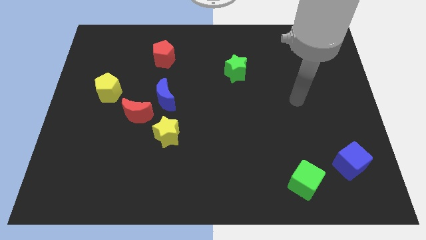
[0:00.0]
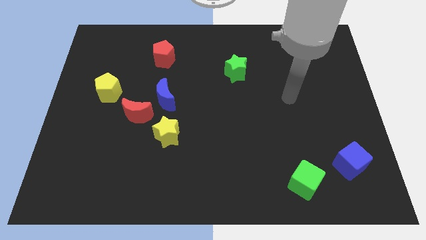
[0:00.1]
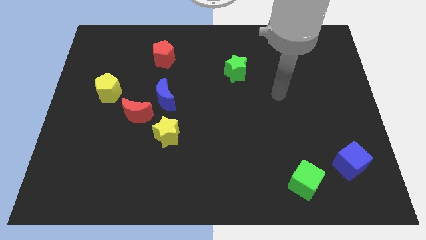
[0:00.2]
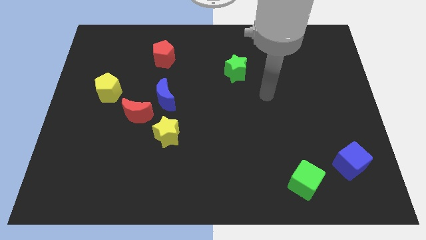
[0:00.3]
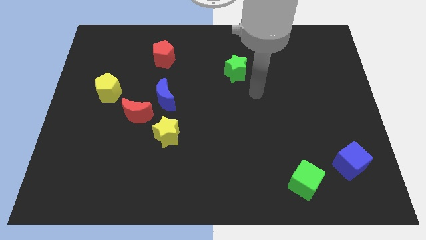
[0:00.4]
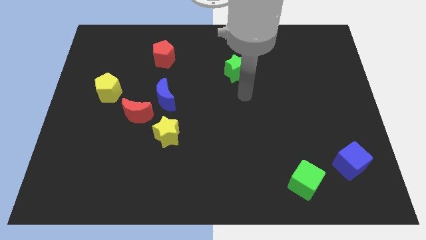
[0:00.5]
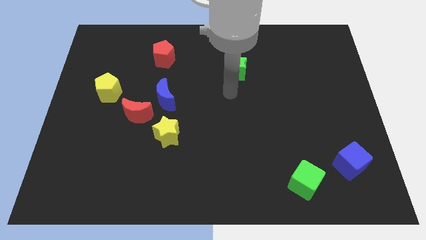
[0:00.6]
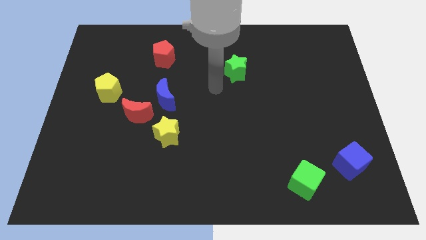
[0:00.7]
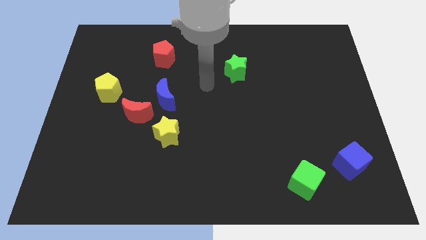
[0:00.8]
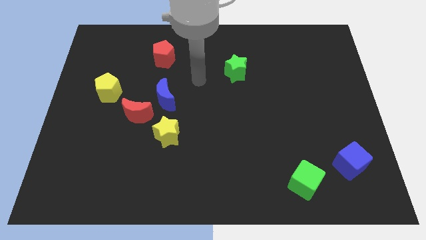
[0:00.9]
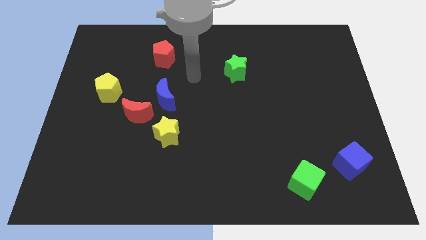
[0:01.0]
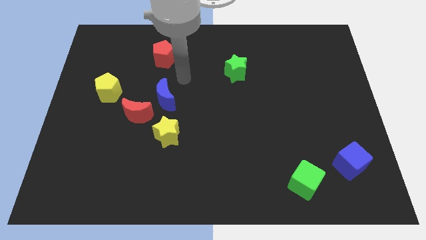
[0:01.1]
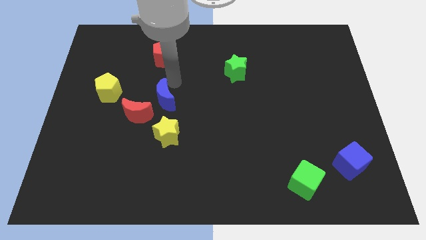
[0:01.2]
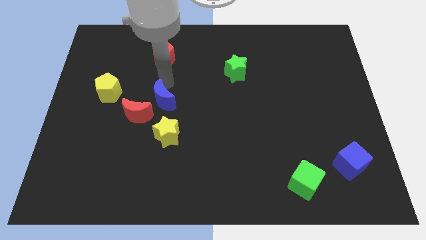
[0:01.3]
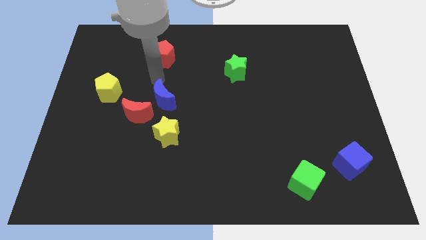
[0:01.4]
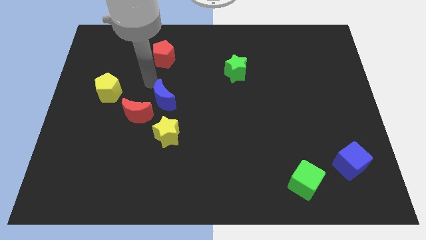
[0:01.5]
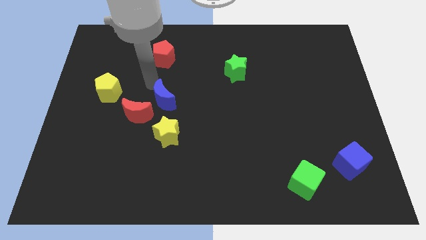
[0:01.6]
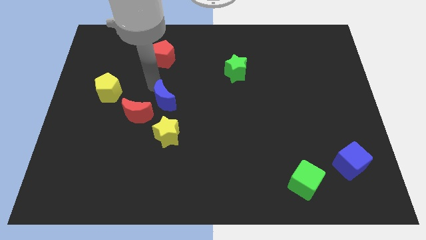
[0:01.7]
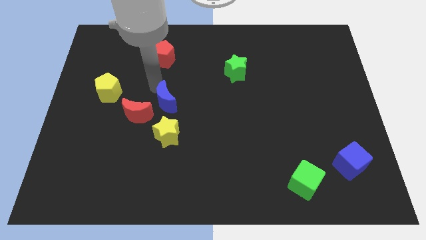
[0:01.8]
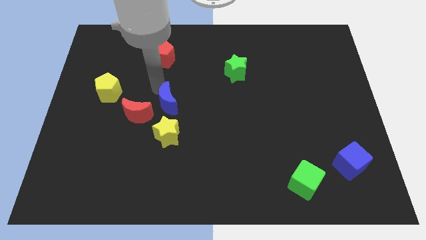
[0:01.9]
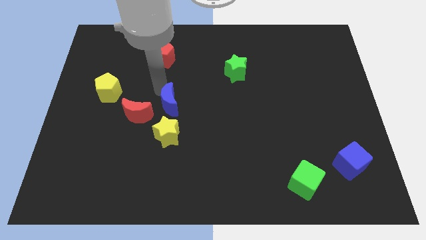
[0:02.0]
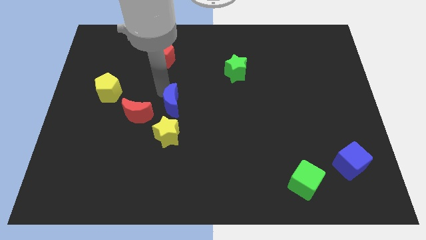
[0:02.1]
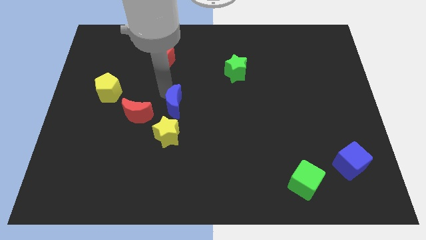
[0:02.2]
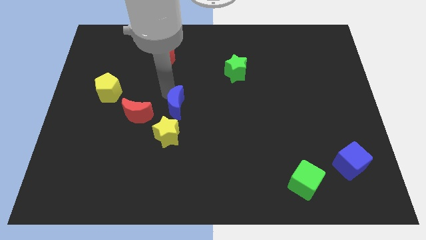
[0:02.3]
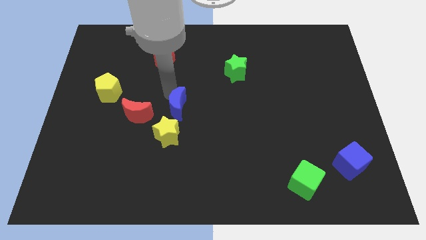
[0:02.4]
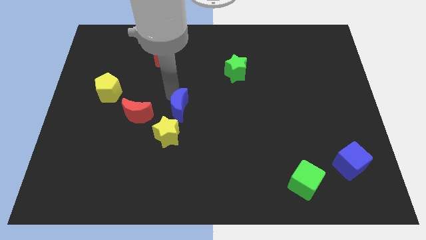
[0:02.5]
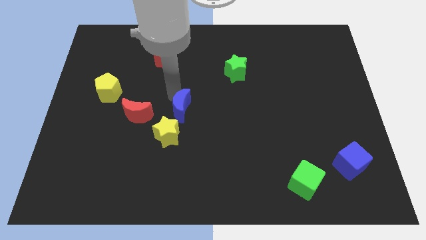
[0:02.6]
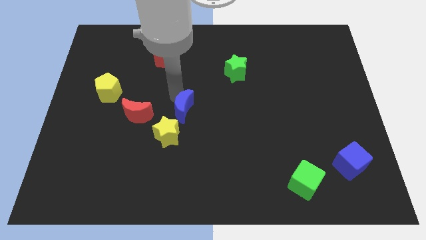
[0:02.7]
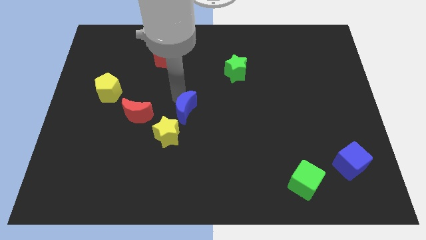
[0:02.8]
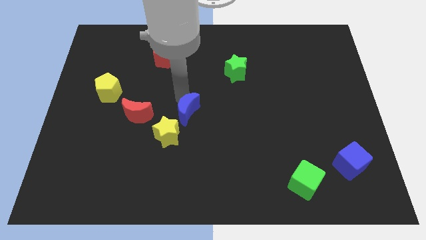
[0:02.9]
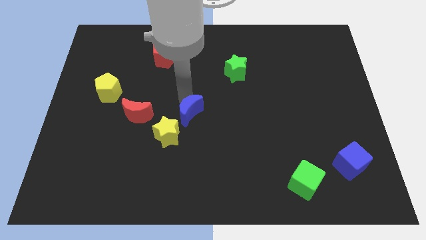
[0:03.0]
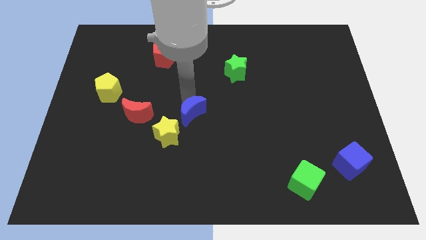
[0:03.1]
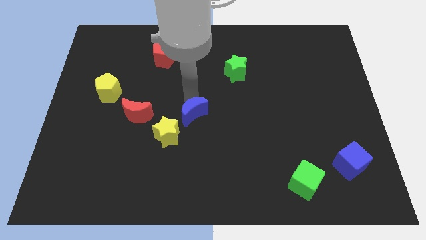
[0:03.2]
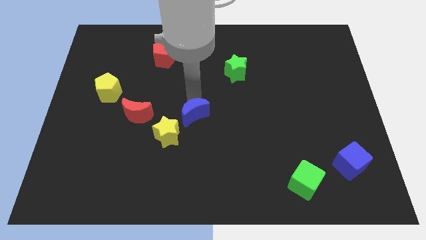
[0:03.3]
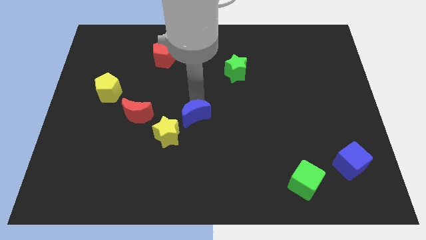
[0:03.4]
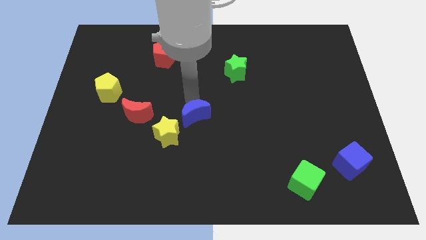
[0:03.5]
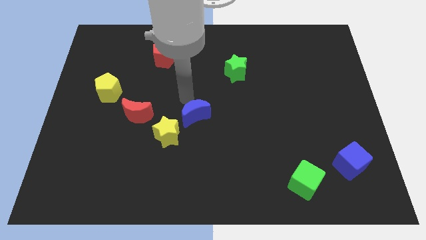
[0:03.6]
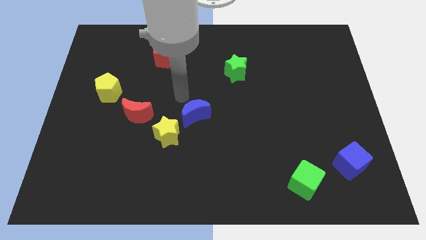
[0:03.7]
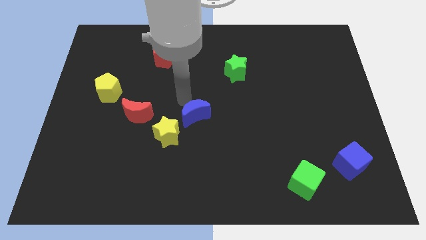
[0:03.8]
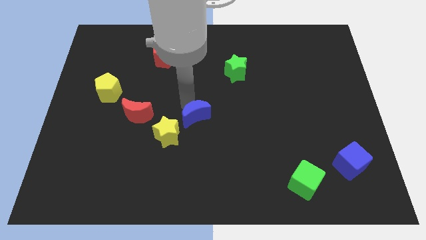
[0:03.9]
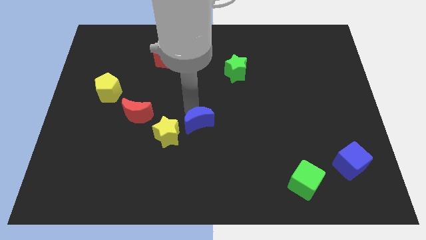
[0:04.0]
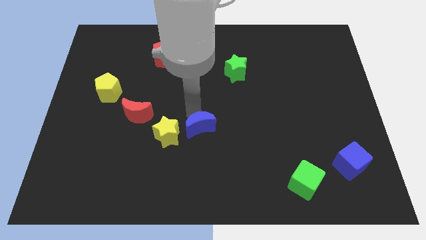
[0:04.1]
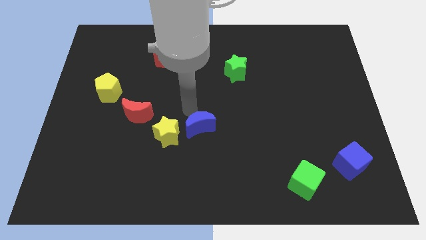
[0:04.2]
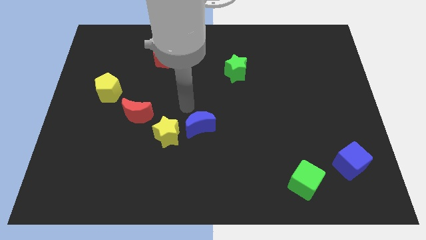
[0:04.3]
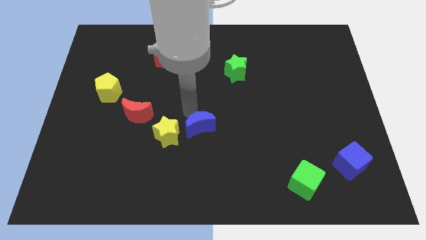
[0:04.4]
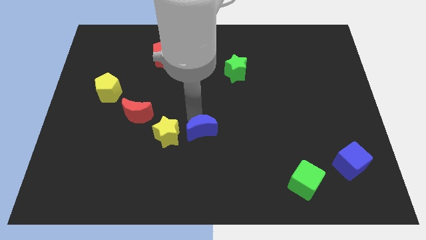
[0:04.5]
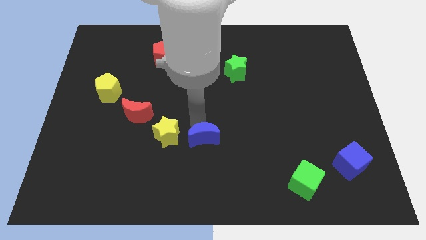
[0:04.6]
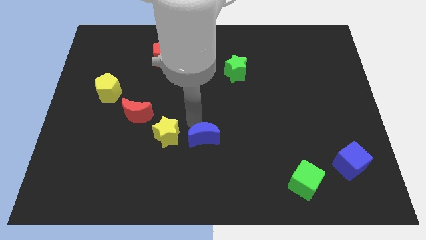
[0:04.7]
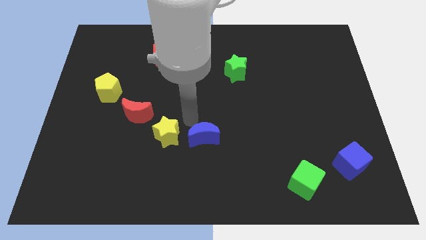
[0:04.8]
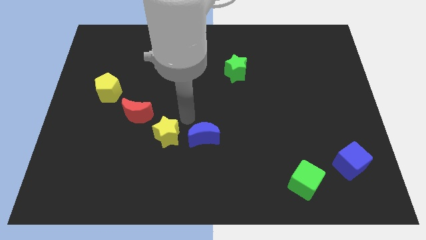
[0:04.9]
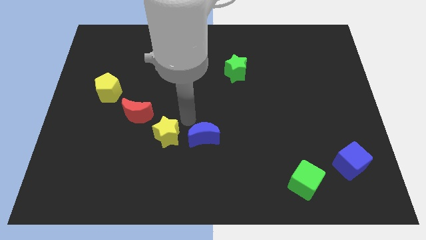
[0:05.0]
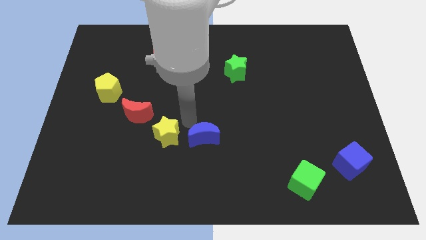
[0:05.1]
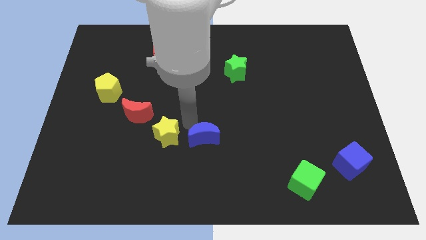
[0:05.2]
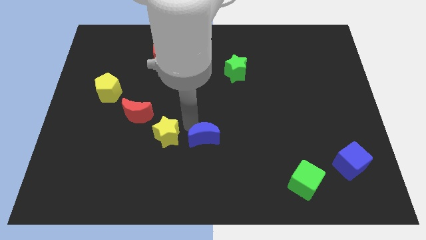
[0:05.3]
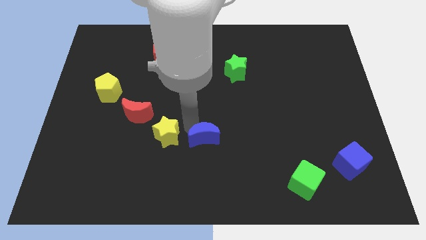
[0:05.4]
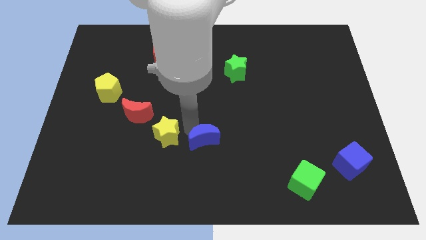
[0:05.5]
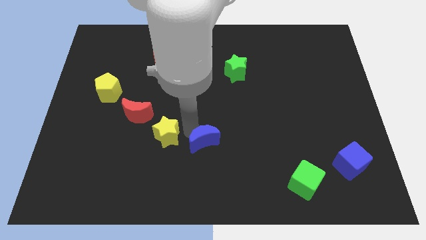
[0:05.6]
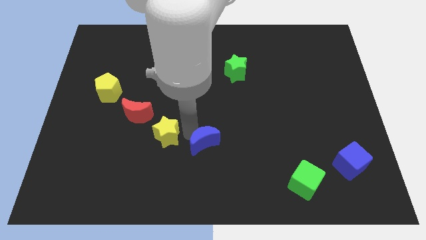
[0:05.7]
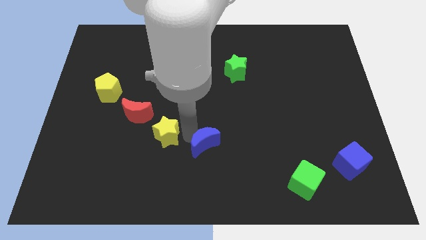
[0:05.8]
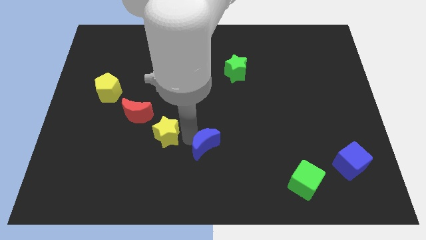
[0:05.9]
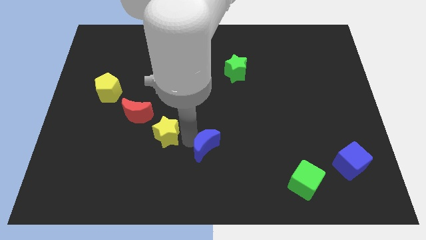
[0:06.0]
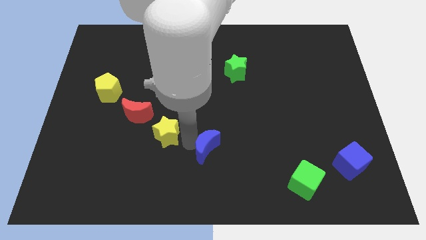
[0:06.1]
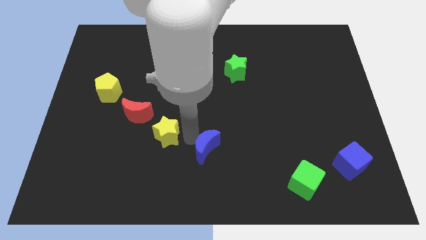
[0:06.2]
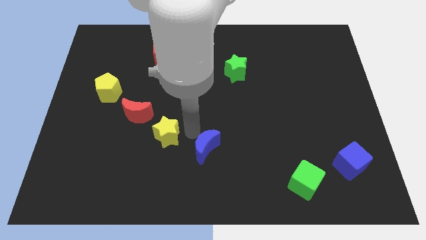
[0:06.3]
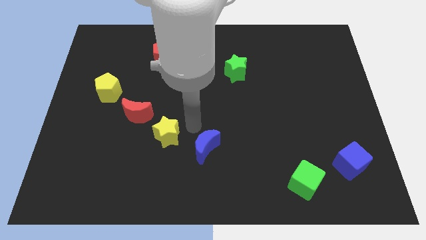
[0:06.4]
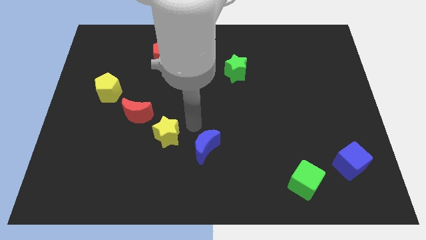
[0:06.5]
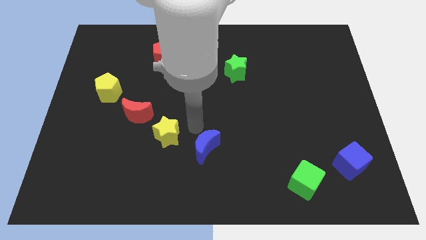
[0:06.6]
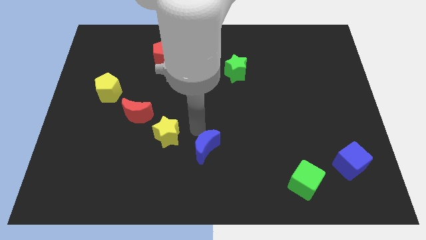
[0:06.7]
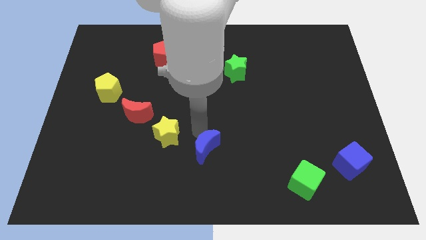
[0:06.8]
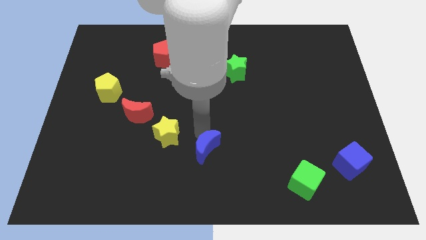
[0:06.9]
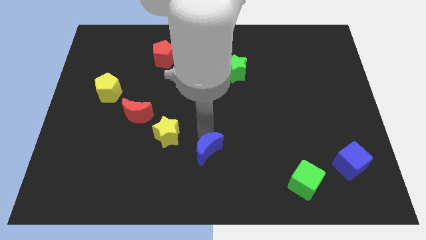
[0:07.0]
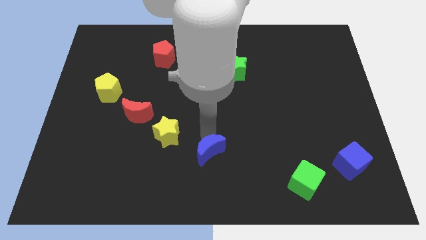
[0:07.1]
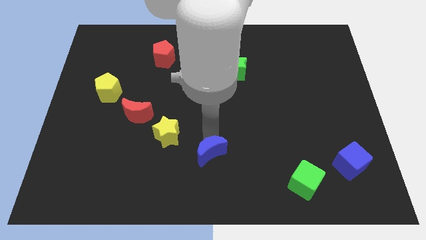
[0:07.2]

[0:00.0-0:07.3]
move the blue moon to the bottom side
